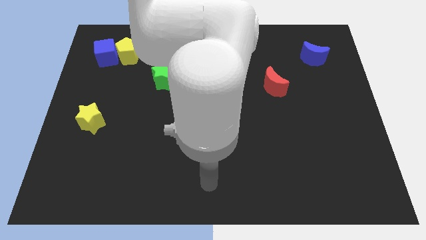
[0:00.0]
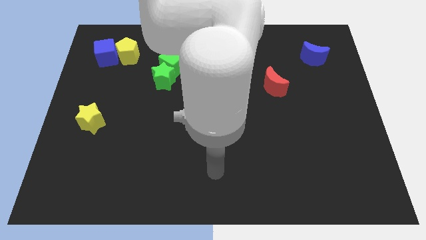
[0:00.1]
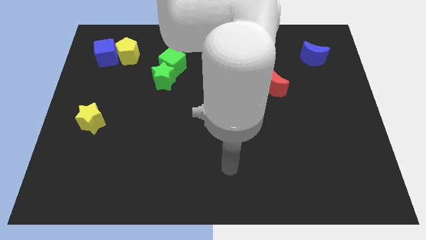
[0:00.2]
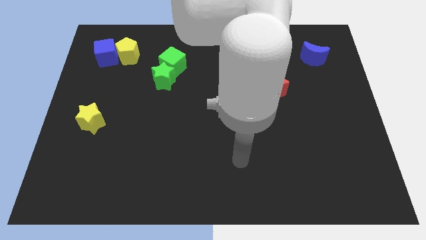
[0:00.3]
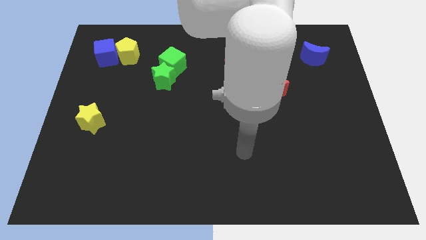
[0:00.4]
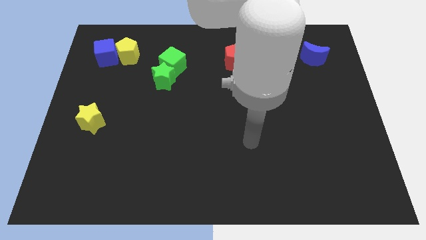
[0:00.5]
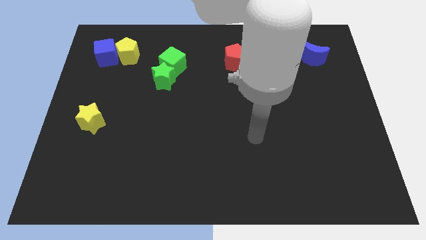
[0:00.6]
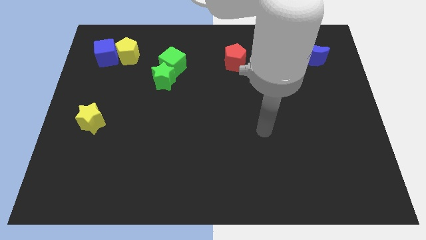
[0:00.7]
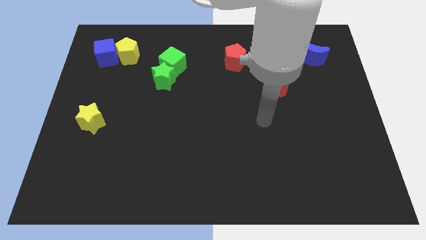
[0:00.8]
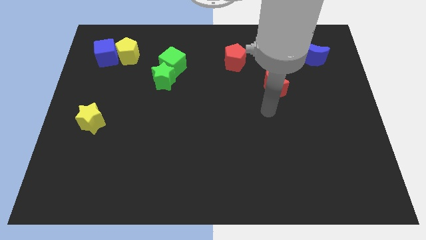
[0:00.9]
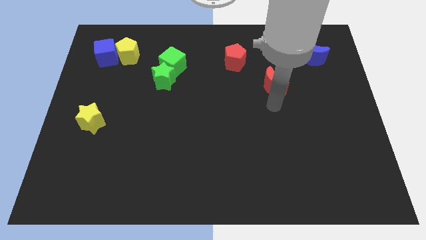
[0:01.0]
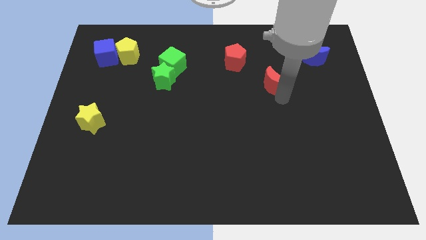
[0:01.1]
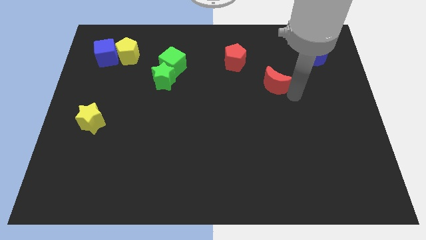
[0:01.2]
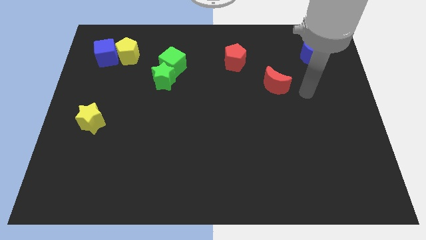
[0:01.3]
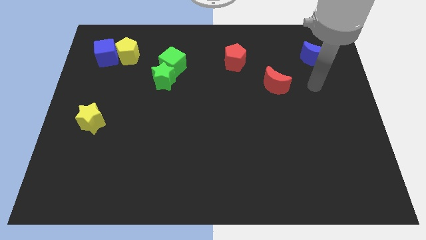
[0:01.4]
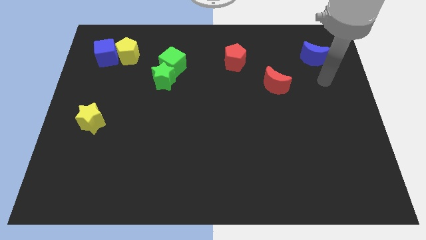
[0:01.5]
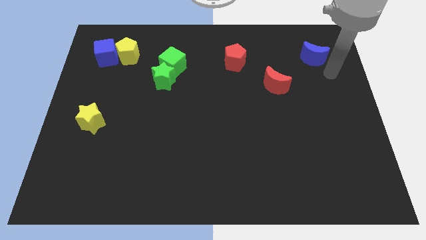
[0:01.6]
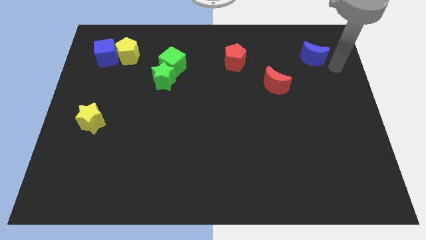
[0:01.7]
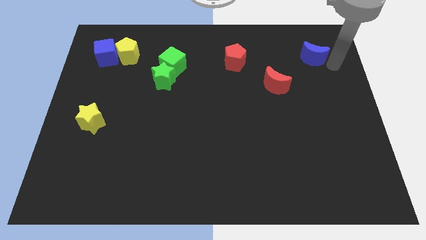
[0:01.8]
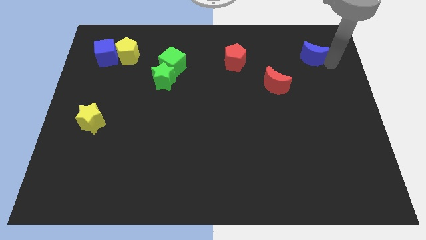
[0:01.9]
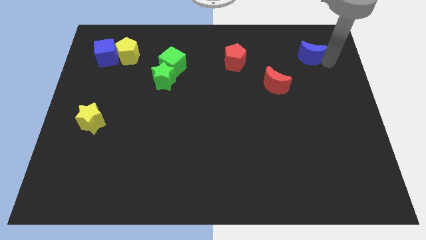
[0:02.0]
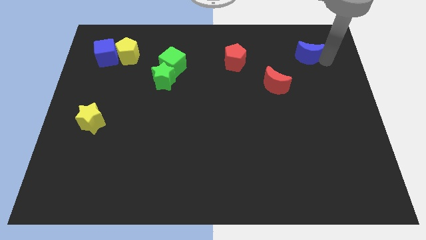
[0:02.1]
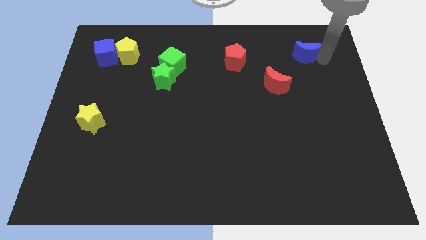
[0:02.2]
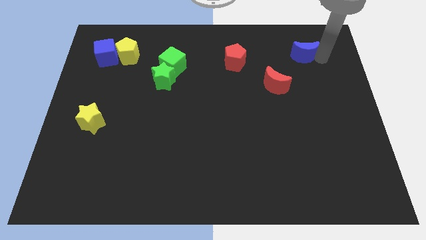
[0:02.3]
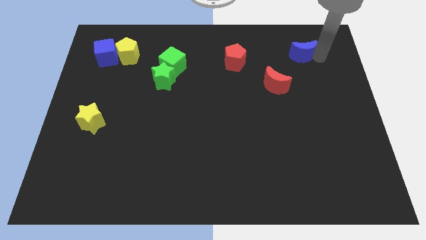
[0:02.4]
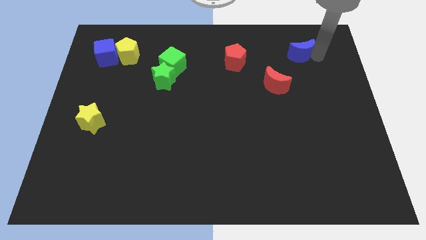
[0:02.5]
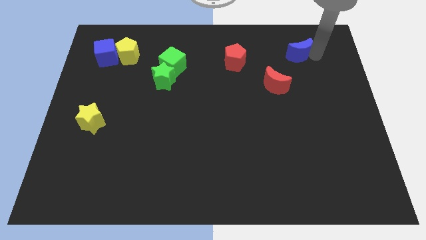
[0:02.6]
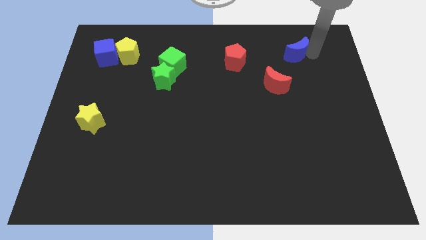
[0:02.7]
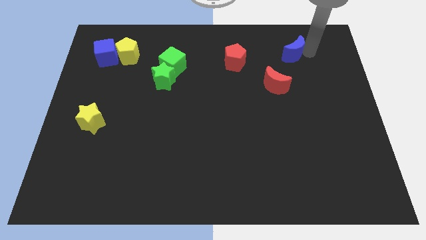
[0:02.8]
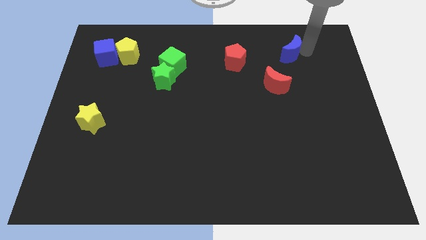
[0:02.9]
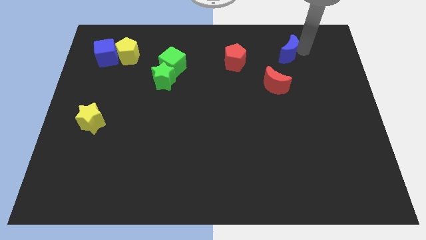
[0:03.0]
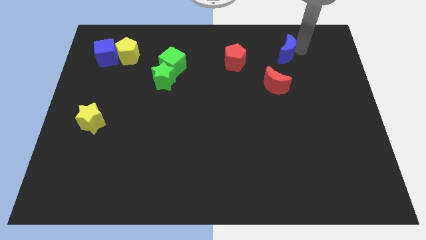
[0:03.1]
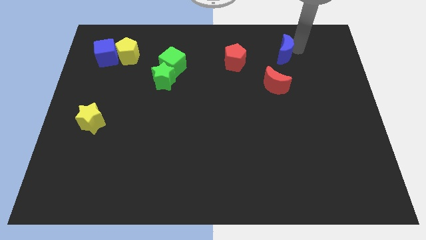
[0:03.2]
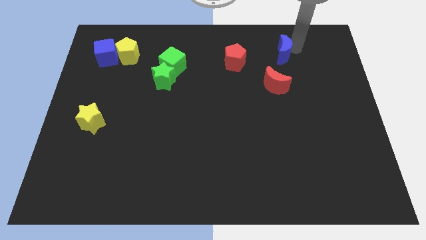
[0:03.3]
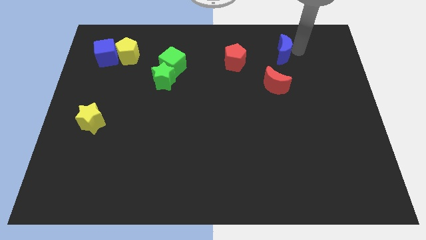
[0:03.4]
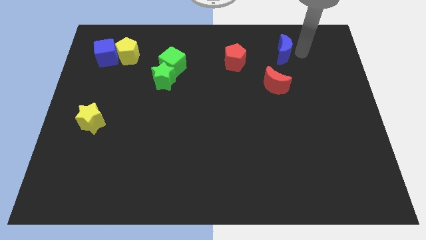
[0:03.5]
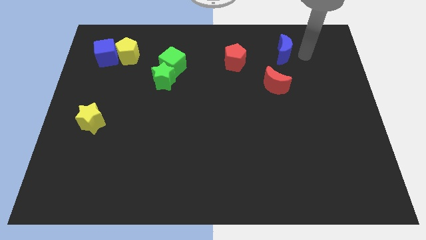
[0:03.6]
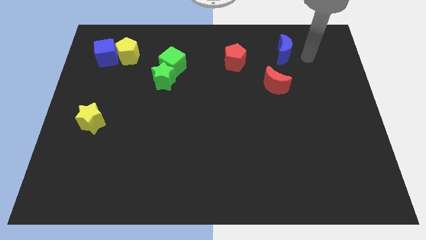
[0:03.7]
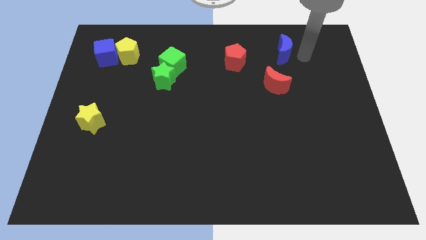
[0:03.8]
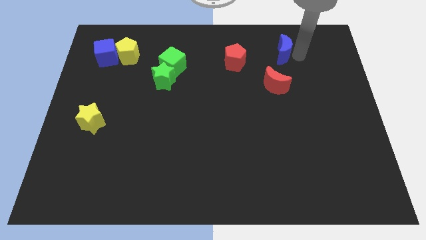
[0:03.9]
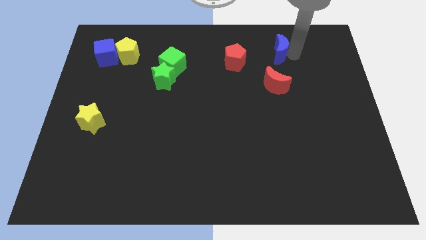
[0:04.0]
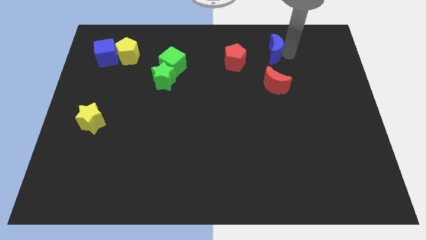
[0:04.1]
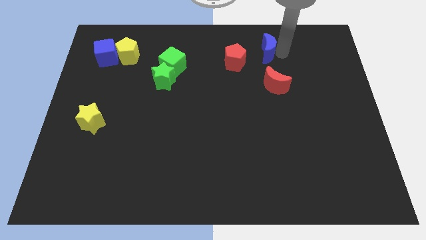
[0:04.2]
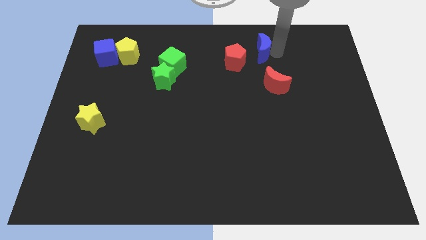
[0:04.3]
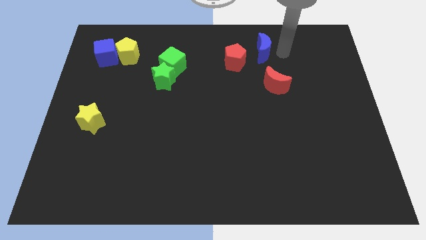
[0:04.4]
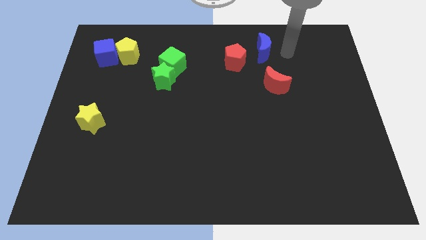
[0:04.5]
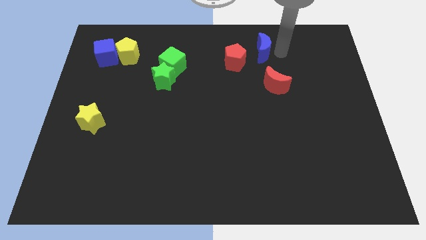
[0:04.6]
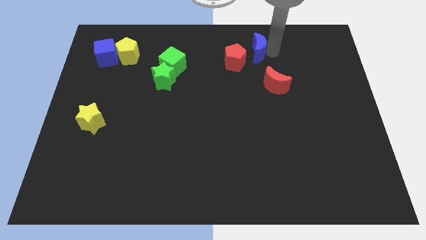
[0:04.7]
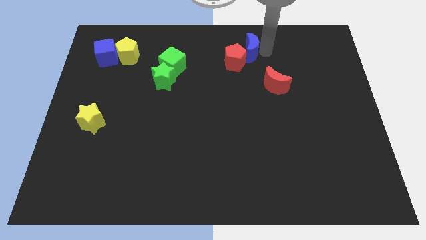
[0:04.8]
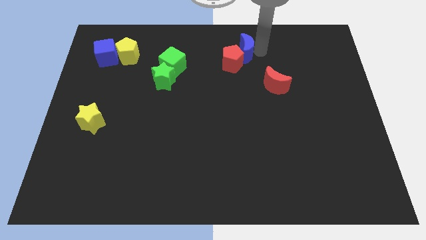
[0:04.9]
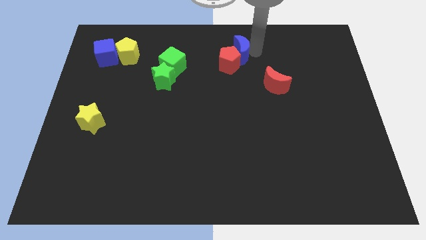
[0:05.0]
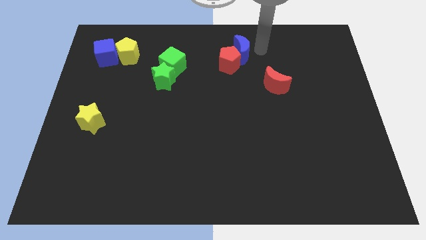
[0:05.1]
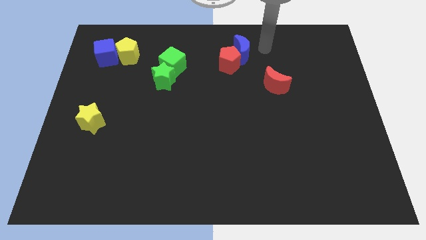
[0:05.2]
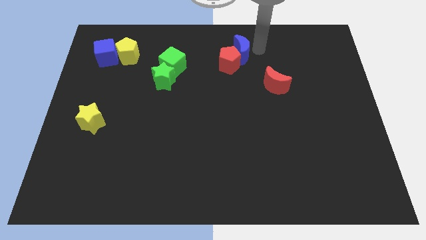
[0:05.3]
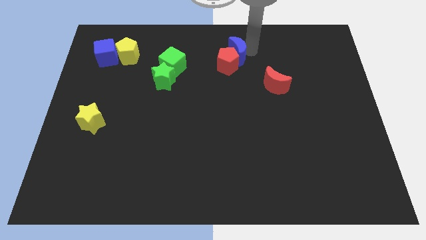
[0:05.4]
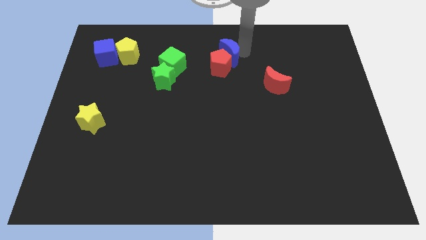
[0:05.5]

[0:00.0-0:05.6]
slide the blue moon to the left

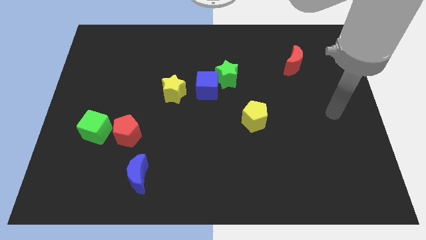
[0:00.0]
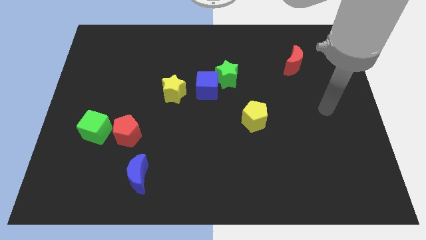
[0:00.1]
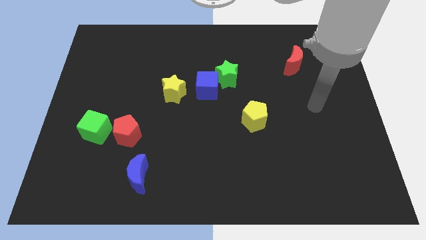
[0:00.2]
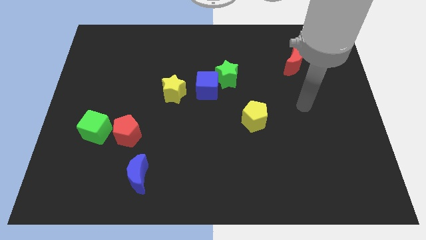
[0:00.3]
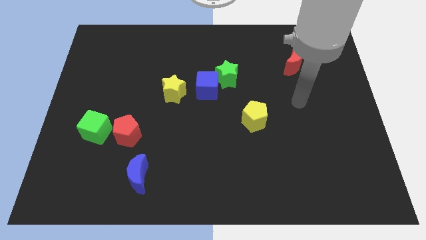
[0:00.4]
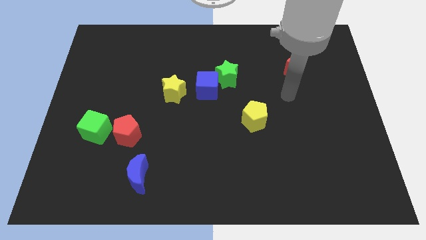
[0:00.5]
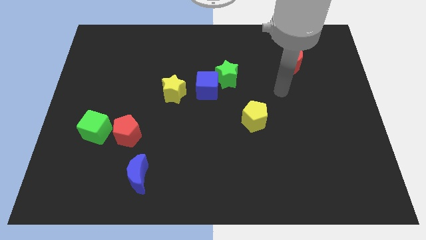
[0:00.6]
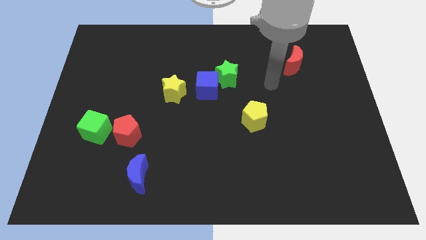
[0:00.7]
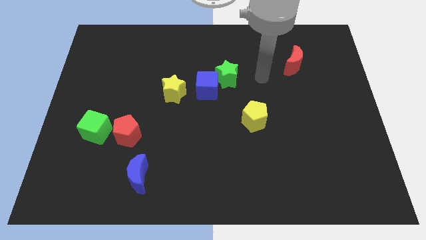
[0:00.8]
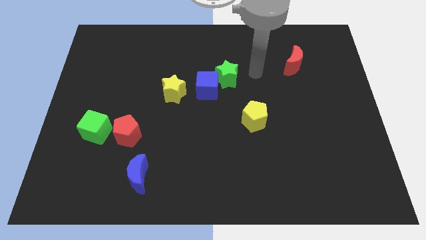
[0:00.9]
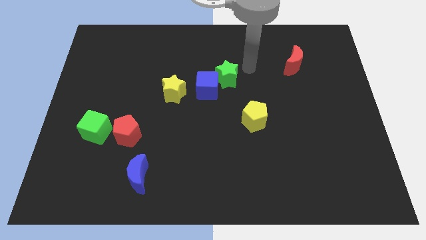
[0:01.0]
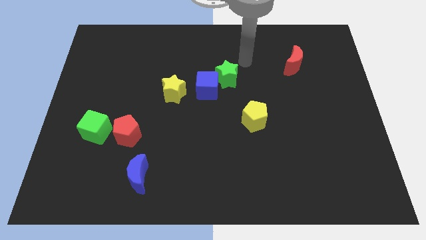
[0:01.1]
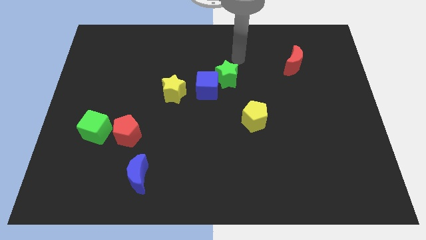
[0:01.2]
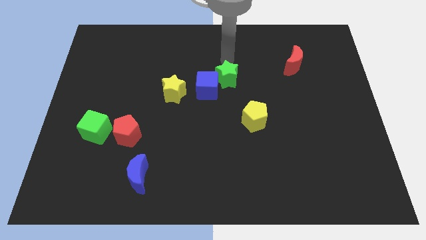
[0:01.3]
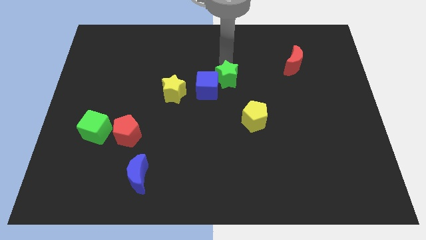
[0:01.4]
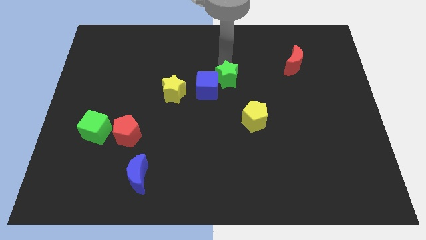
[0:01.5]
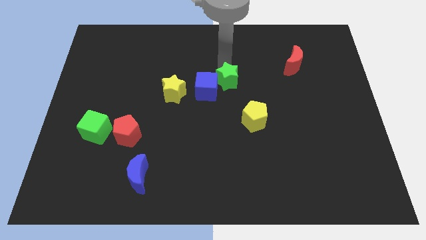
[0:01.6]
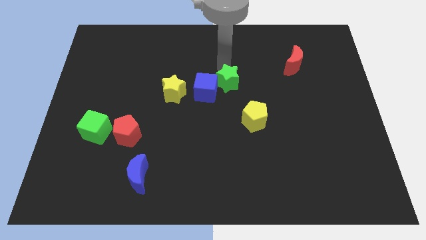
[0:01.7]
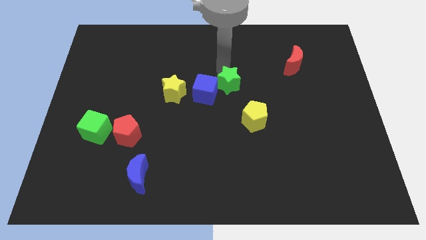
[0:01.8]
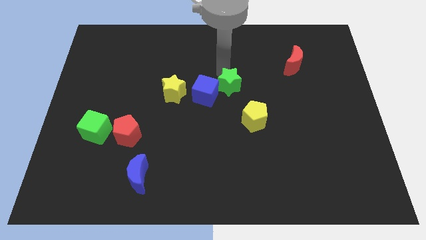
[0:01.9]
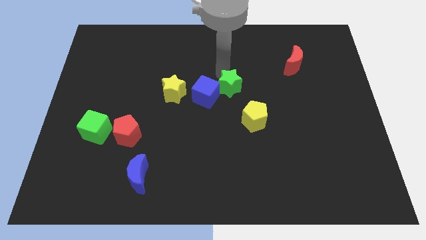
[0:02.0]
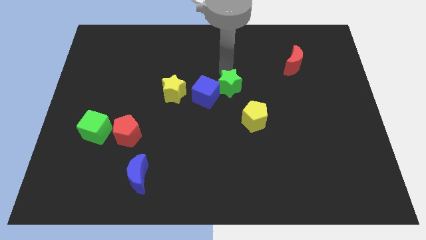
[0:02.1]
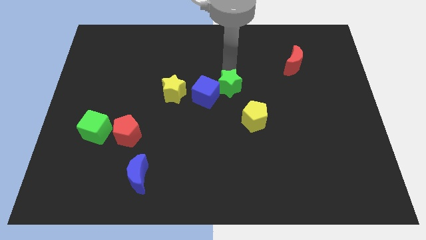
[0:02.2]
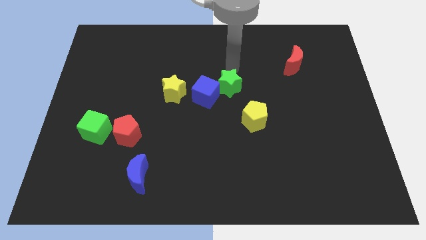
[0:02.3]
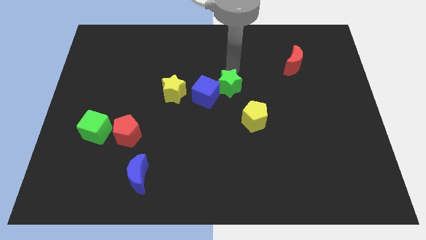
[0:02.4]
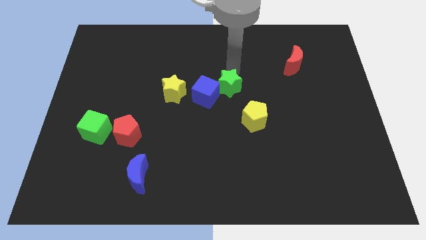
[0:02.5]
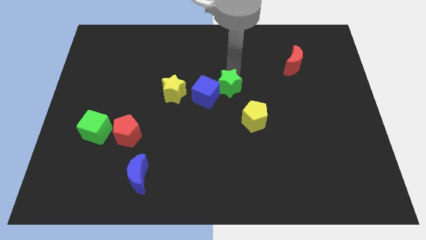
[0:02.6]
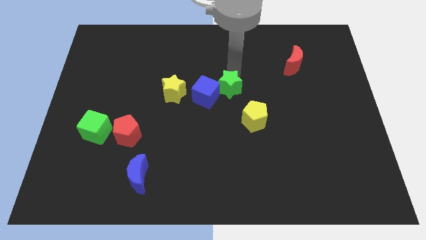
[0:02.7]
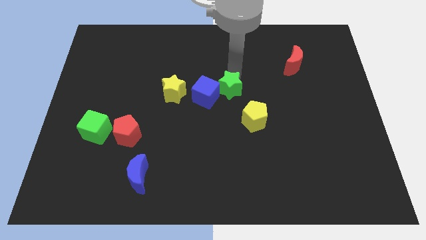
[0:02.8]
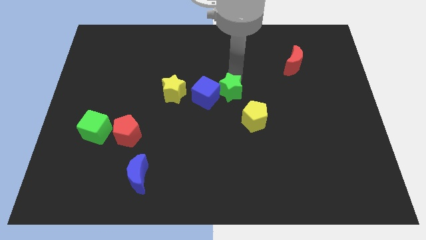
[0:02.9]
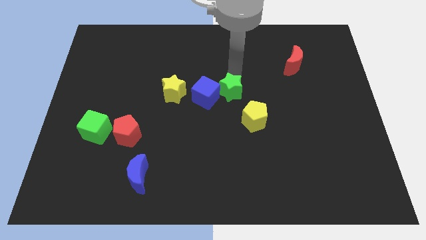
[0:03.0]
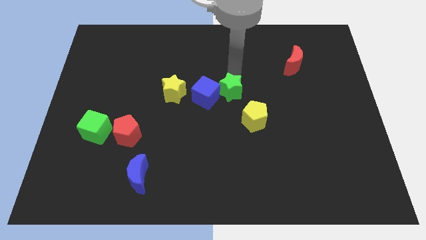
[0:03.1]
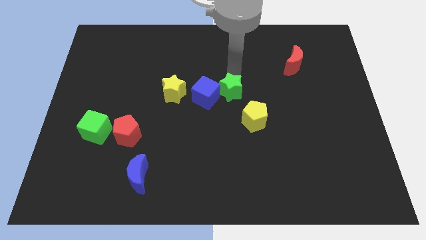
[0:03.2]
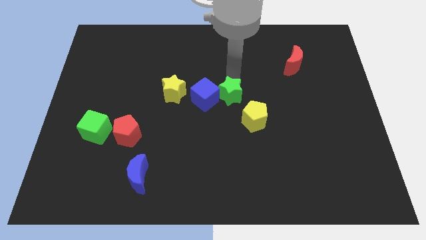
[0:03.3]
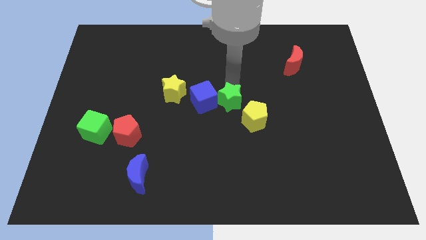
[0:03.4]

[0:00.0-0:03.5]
slightly slide the green star downwards
